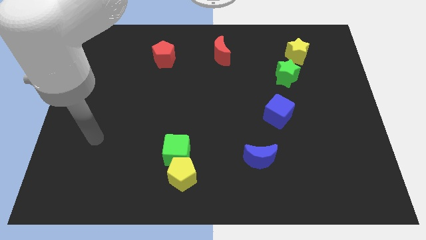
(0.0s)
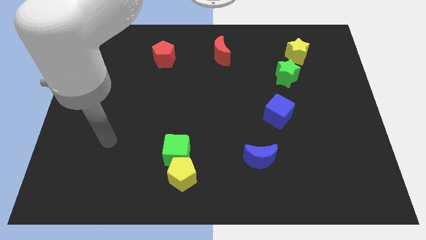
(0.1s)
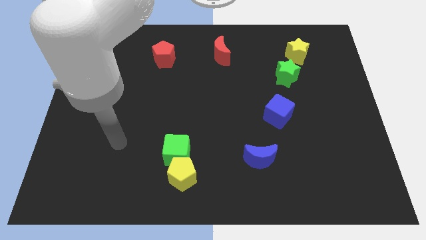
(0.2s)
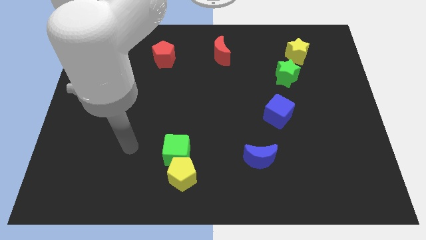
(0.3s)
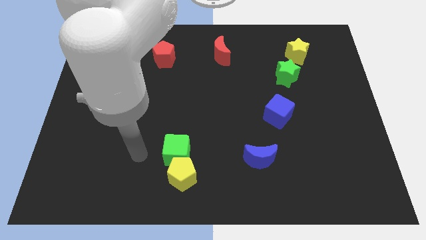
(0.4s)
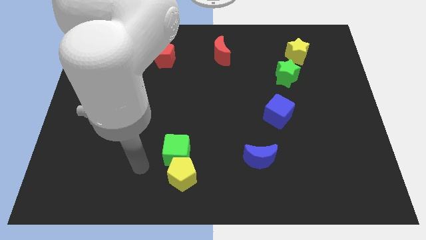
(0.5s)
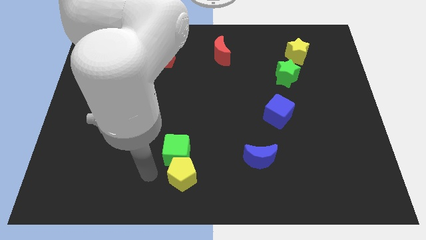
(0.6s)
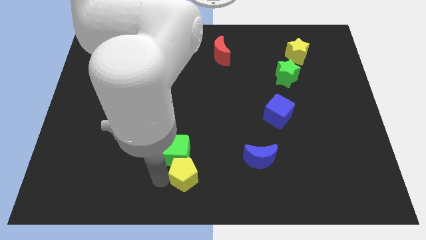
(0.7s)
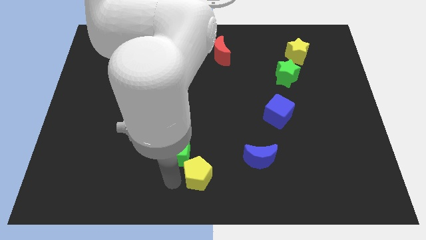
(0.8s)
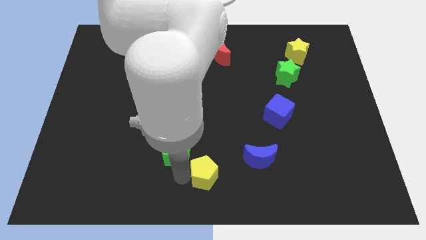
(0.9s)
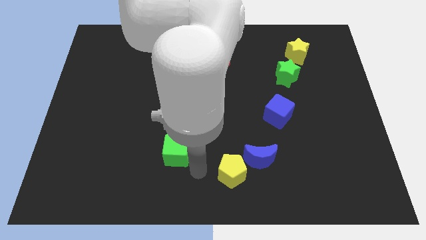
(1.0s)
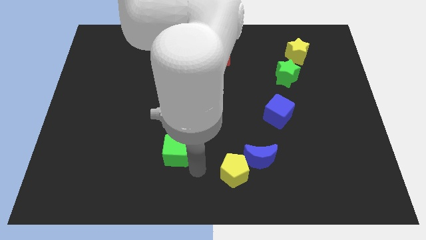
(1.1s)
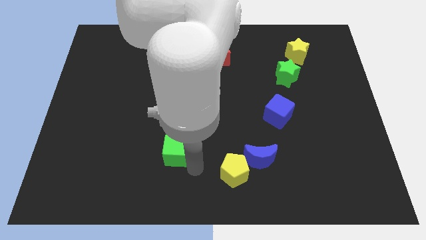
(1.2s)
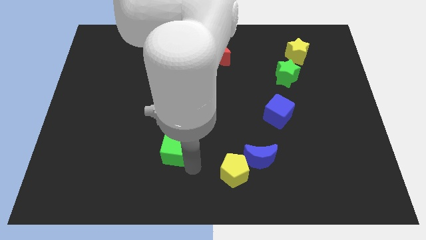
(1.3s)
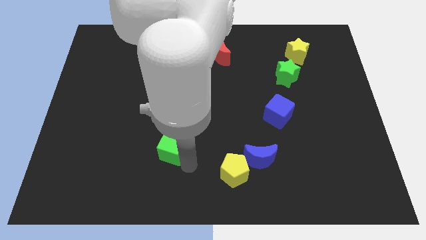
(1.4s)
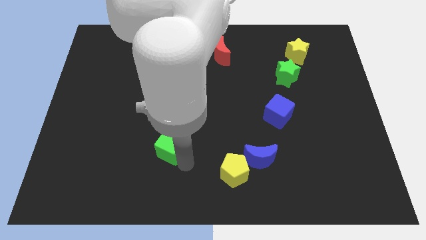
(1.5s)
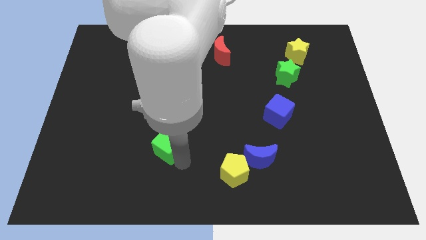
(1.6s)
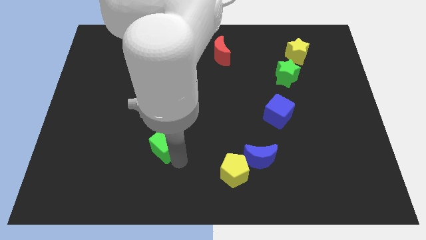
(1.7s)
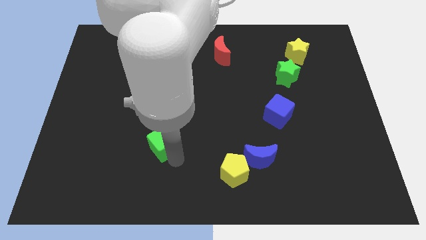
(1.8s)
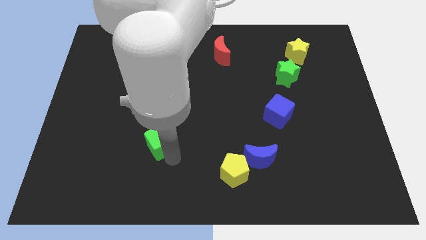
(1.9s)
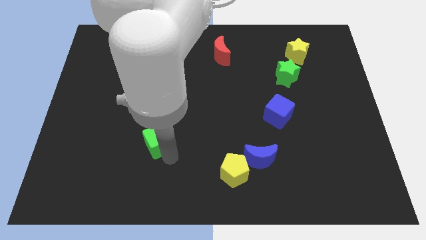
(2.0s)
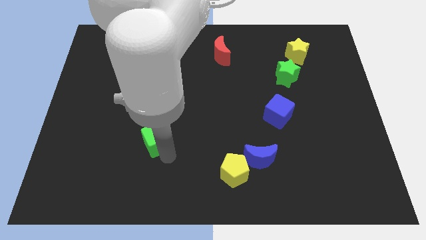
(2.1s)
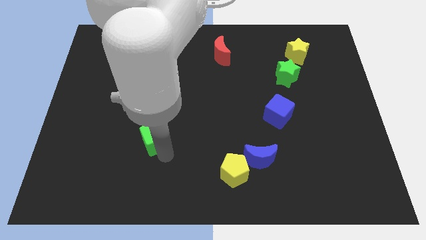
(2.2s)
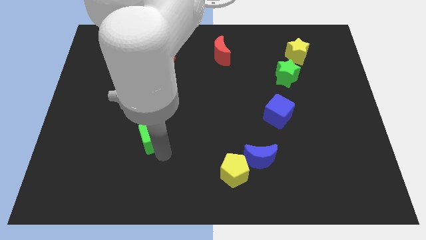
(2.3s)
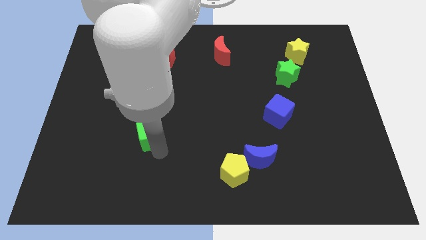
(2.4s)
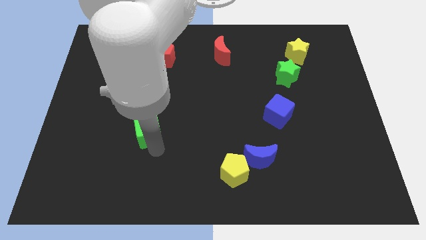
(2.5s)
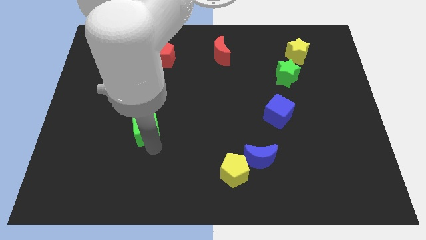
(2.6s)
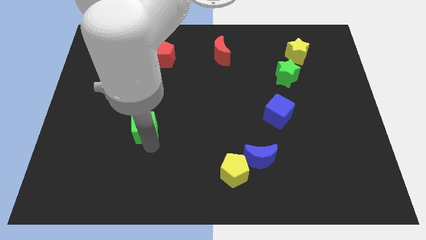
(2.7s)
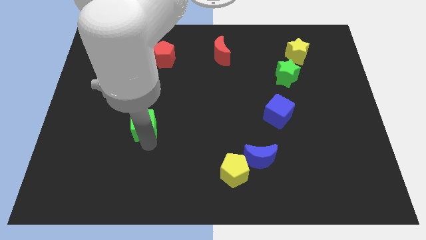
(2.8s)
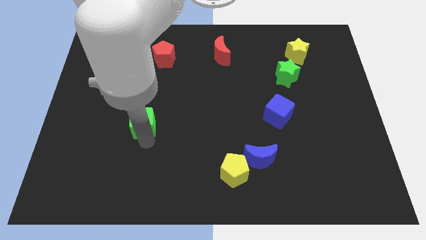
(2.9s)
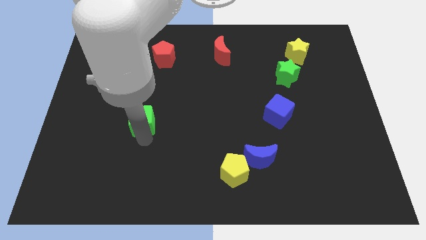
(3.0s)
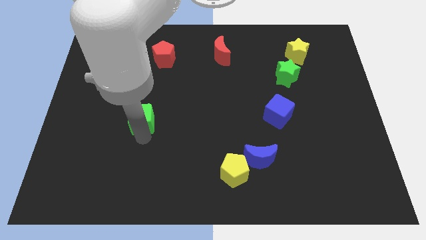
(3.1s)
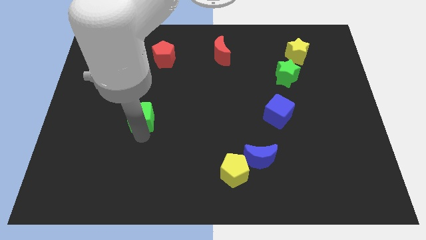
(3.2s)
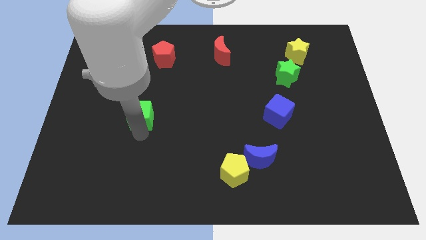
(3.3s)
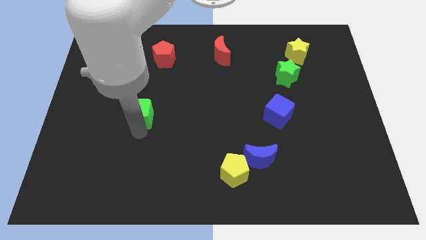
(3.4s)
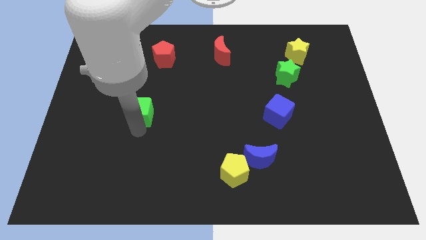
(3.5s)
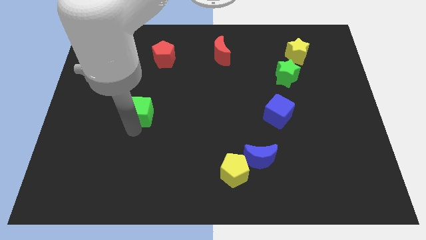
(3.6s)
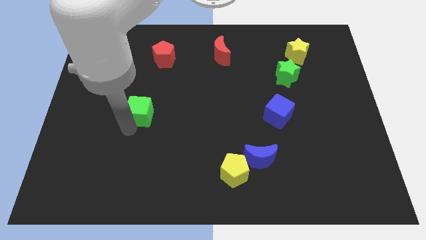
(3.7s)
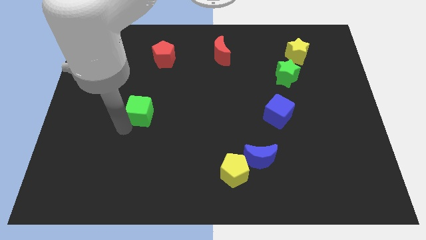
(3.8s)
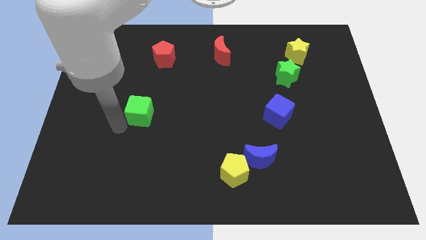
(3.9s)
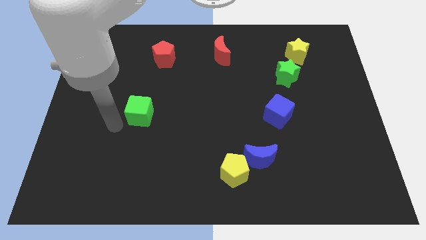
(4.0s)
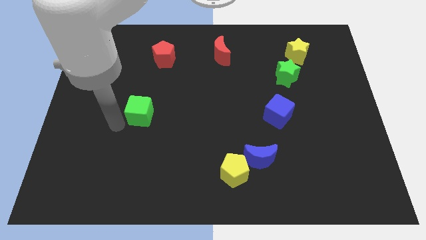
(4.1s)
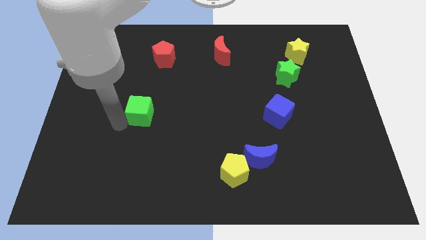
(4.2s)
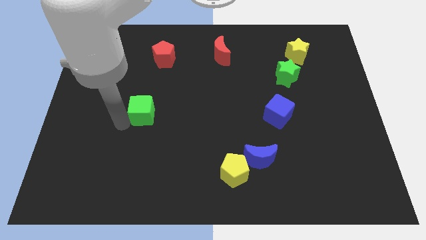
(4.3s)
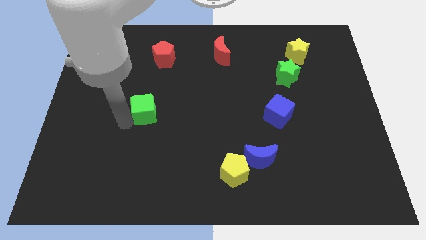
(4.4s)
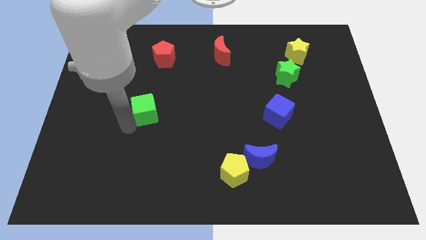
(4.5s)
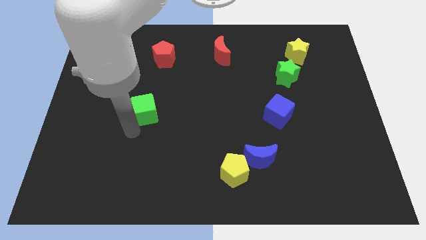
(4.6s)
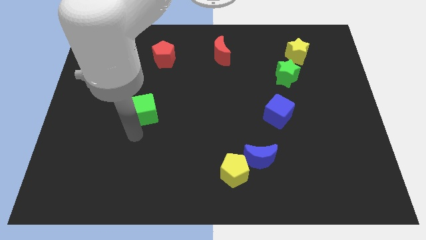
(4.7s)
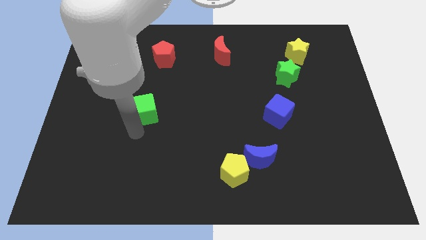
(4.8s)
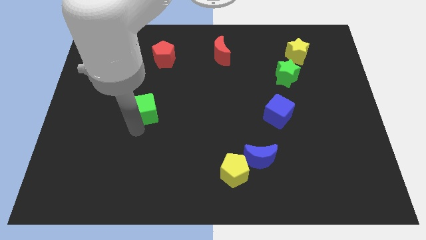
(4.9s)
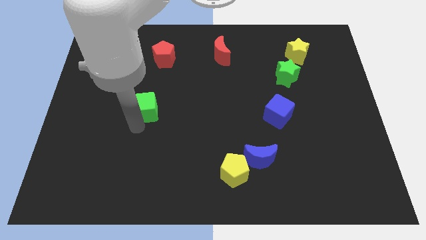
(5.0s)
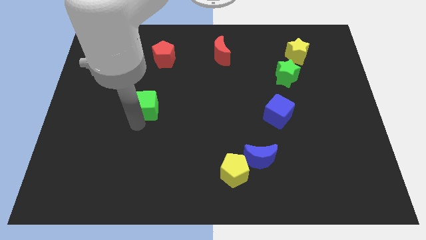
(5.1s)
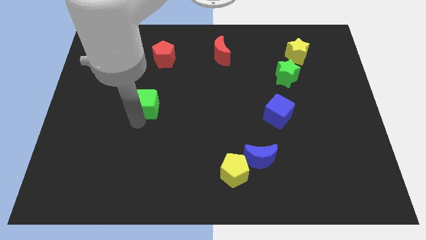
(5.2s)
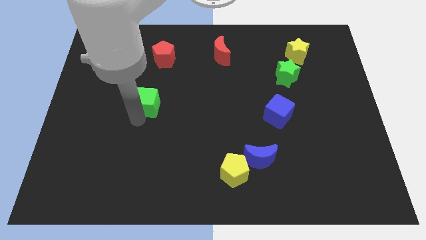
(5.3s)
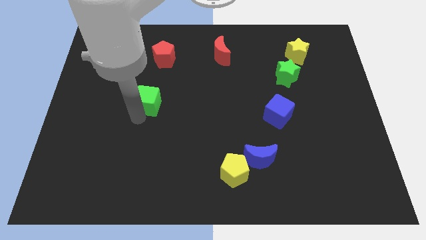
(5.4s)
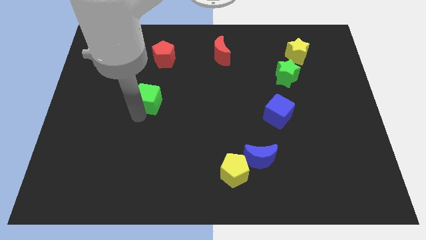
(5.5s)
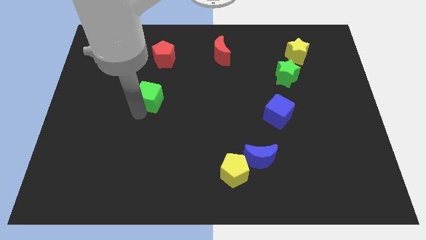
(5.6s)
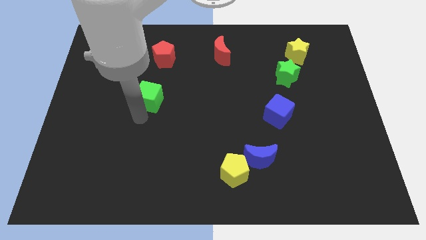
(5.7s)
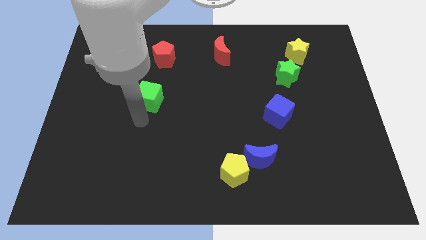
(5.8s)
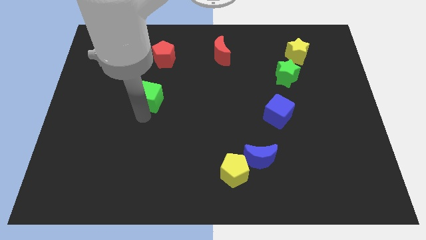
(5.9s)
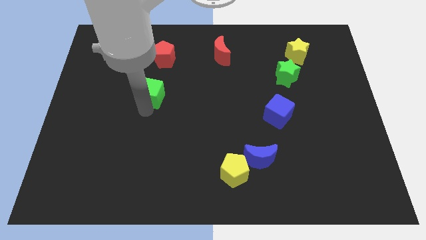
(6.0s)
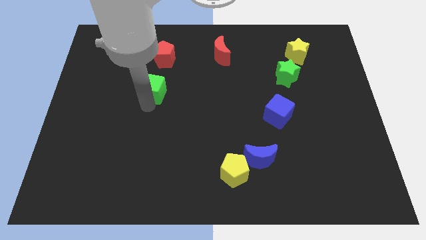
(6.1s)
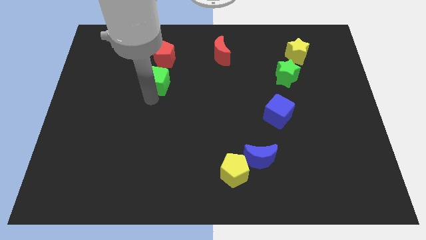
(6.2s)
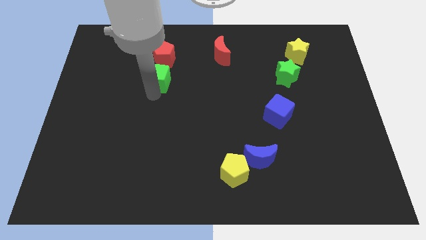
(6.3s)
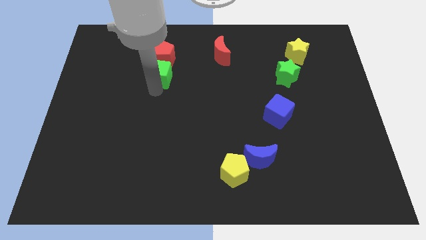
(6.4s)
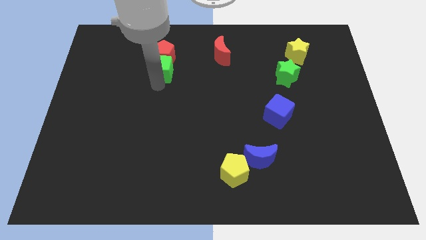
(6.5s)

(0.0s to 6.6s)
move the green cube close to the red pentagon

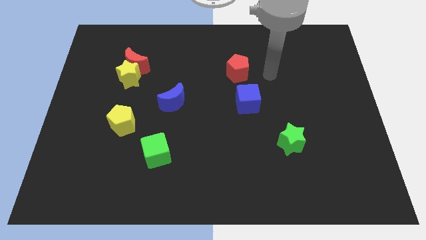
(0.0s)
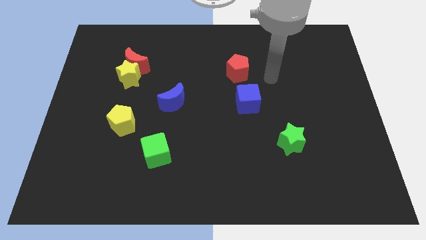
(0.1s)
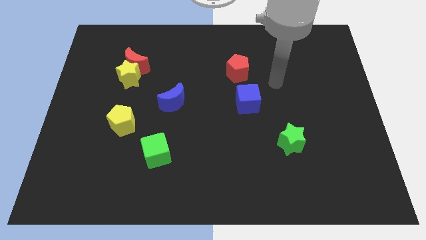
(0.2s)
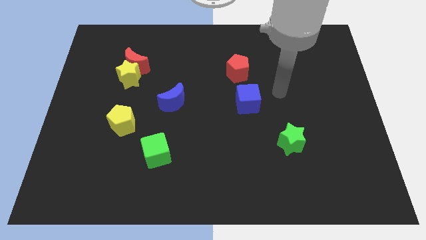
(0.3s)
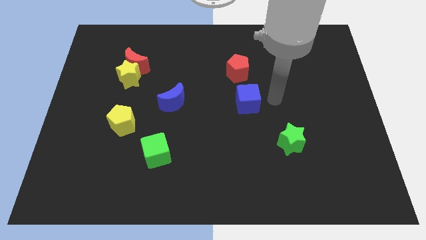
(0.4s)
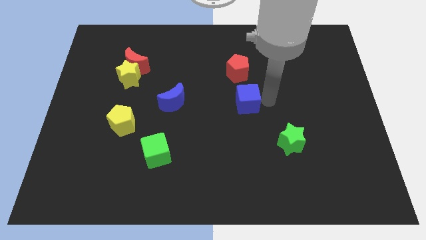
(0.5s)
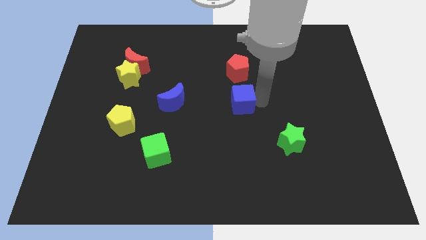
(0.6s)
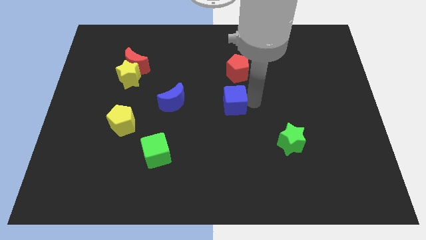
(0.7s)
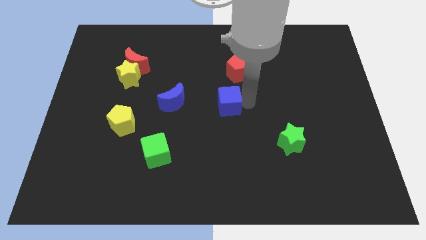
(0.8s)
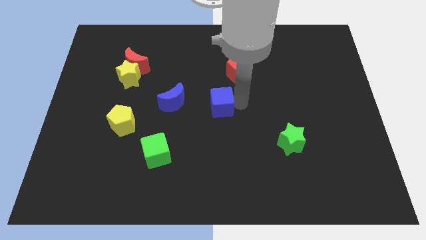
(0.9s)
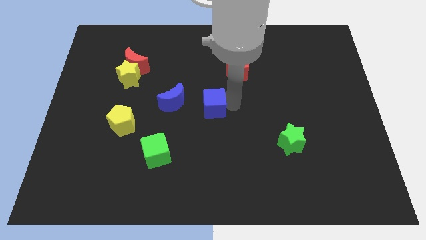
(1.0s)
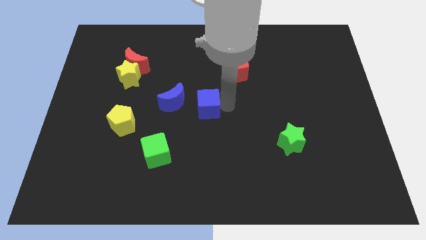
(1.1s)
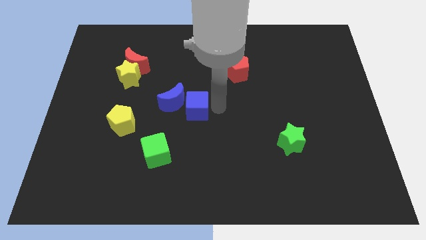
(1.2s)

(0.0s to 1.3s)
slide the blue cube close to the blue moon
